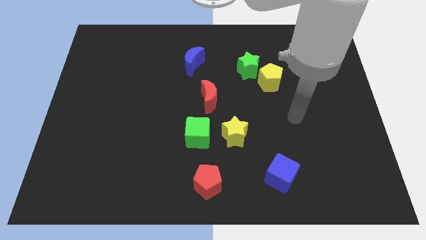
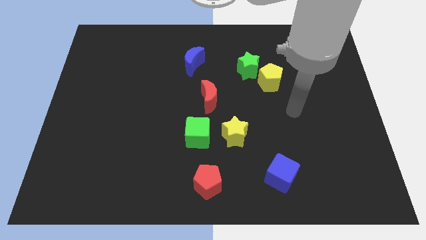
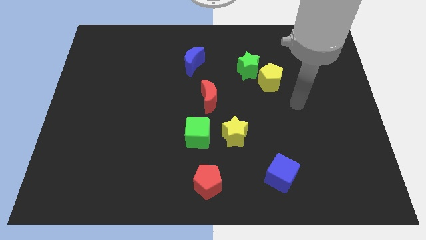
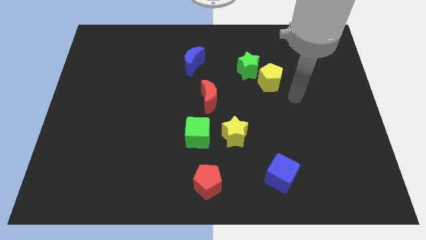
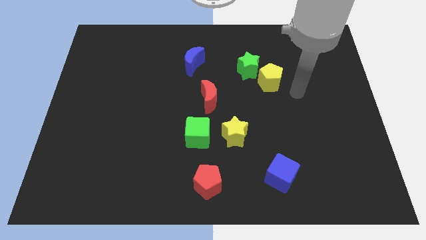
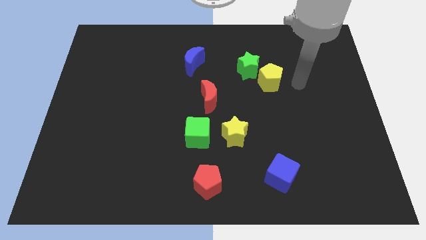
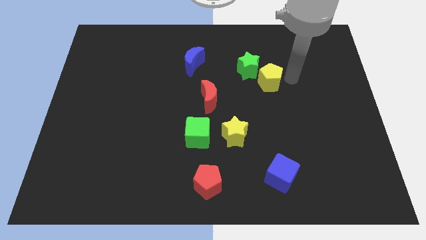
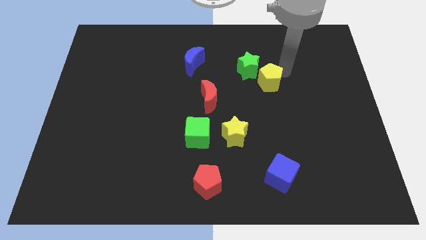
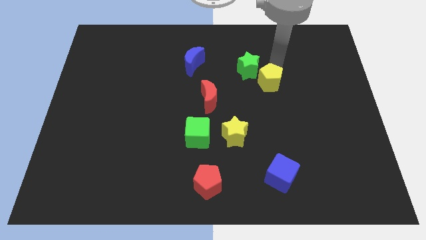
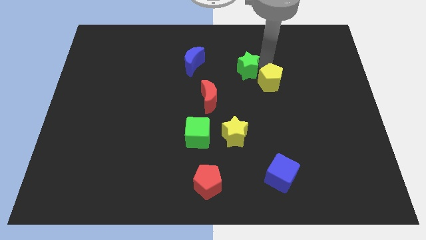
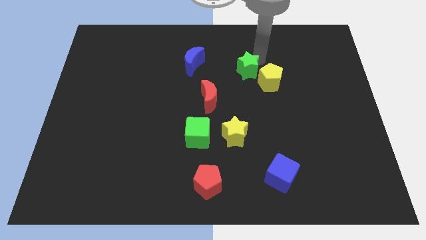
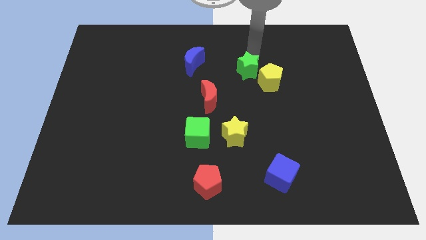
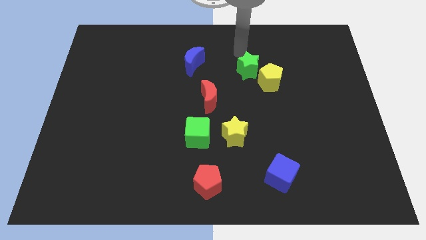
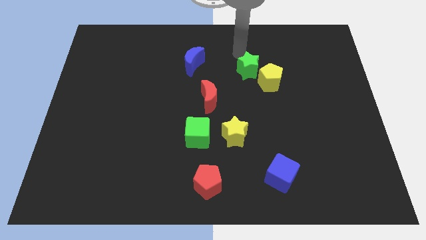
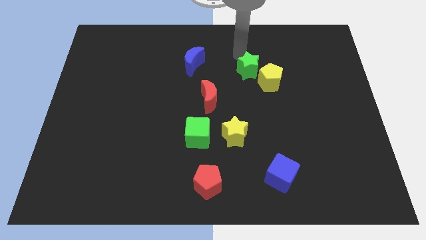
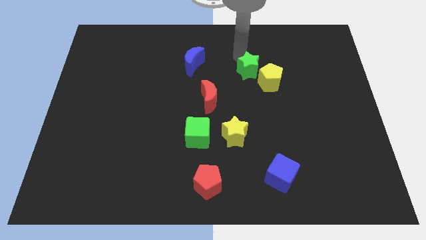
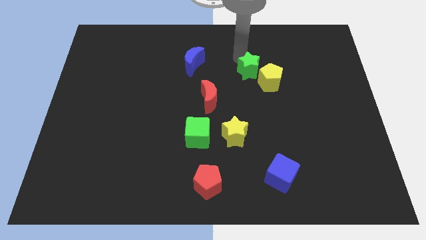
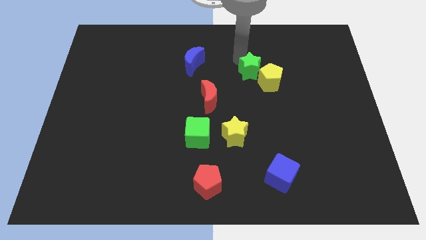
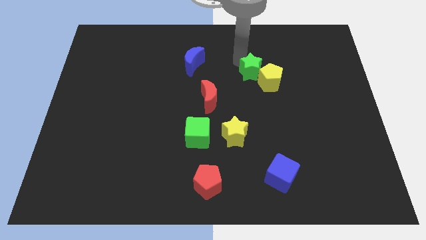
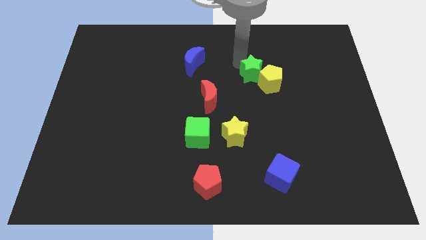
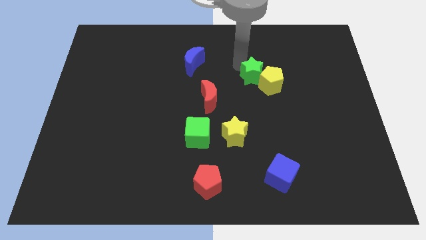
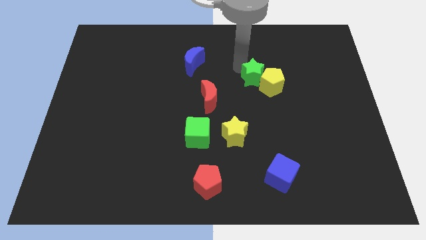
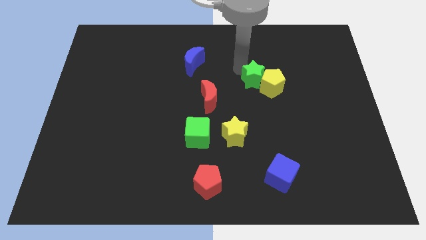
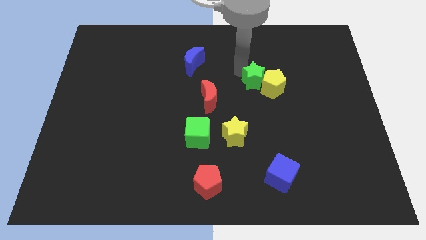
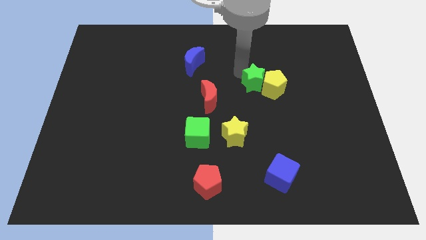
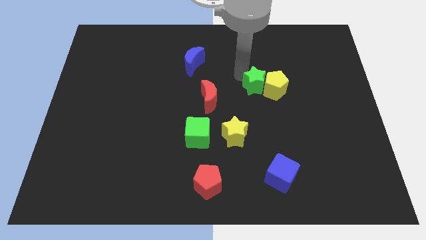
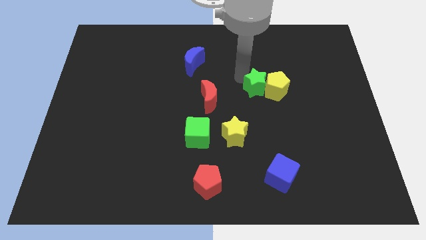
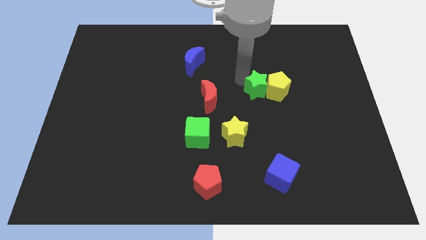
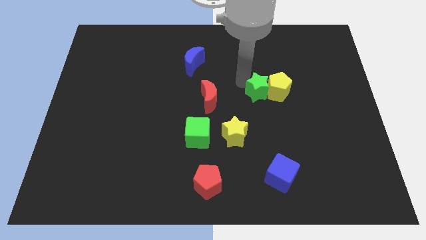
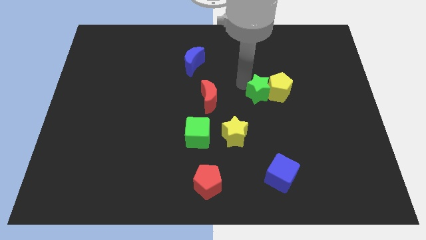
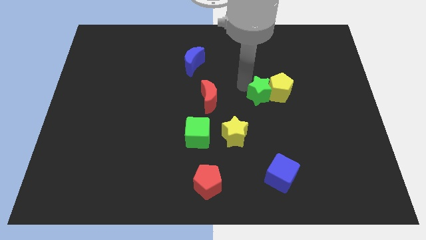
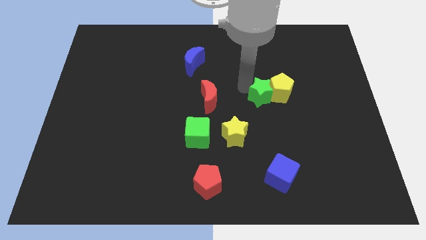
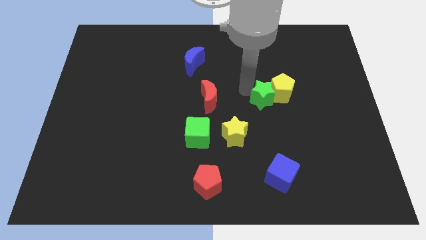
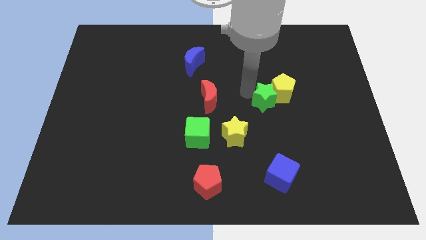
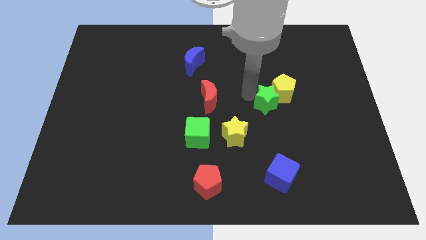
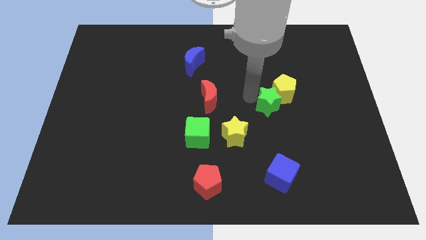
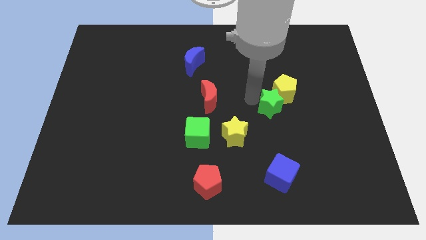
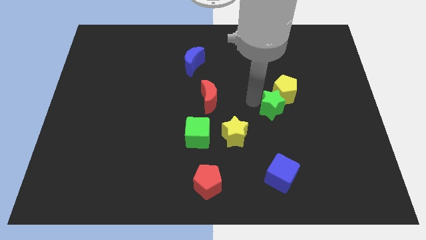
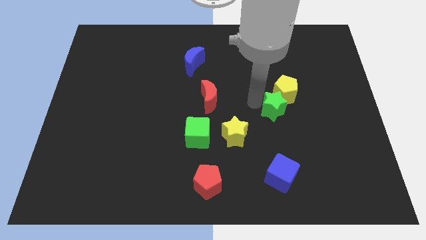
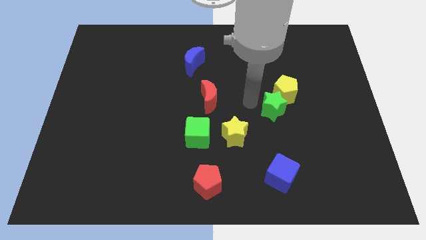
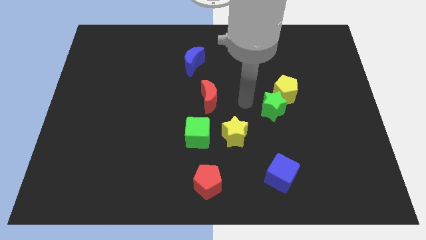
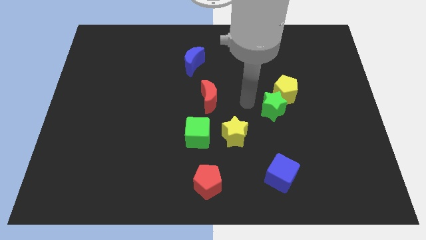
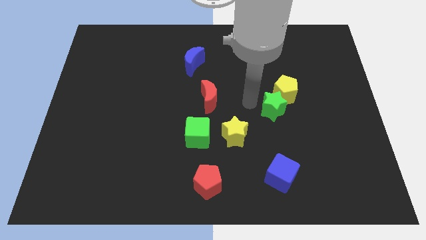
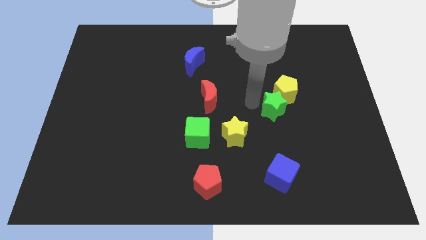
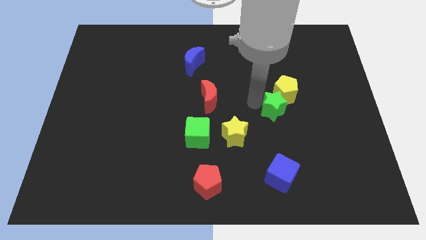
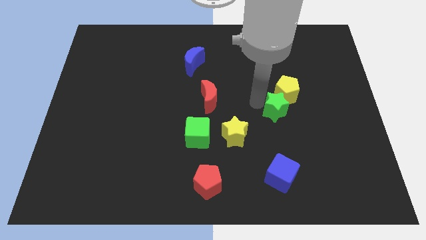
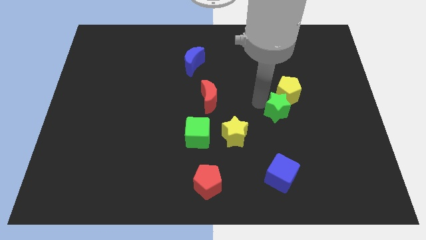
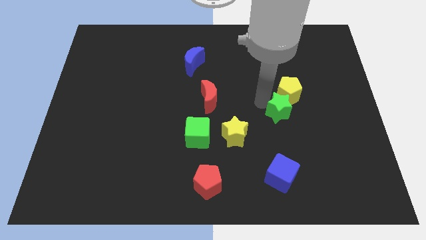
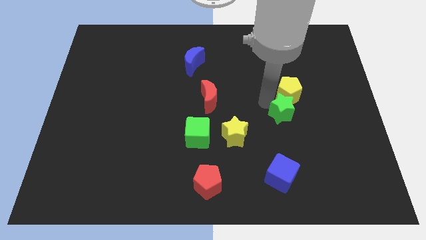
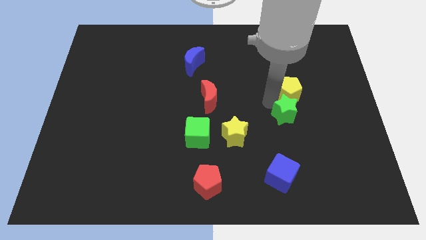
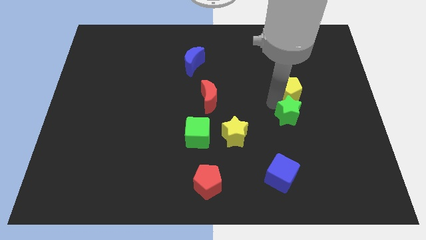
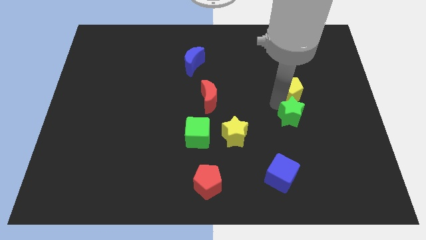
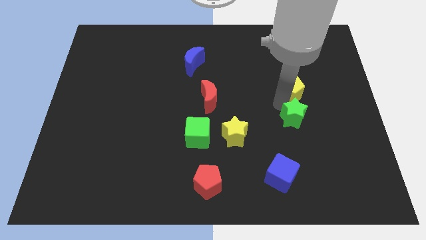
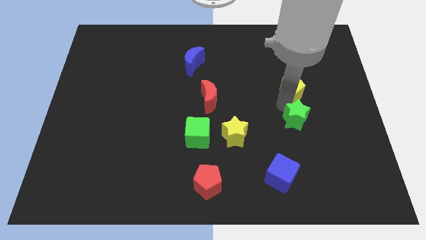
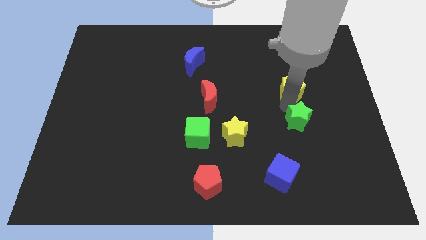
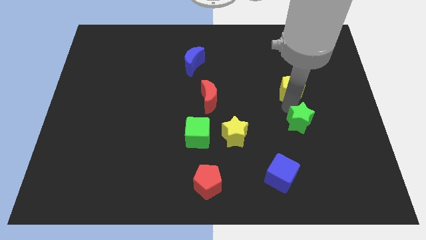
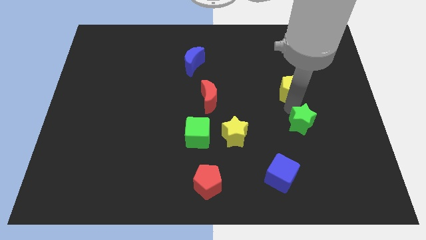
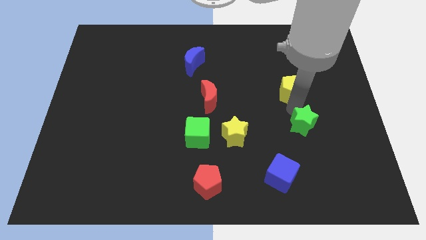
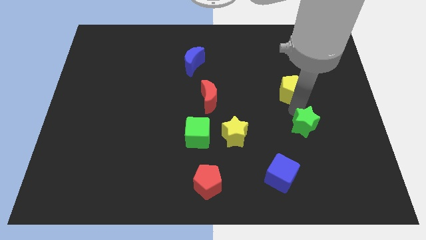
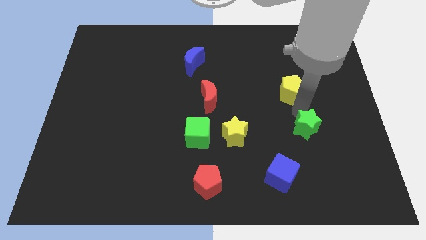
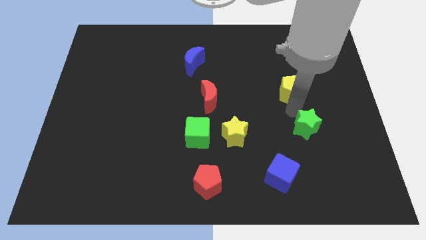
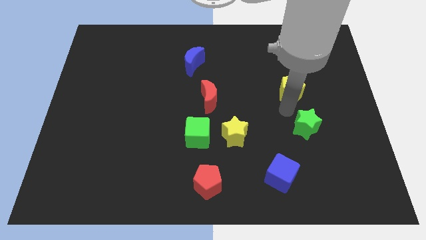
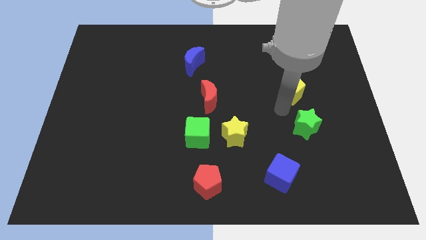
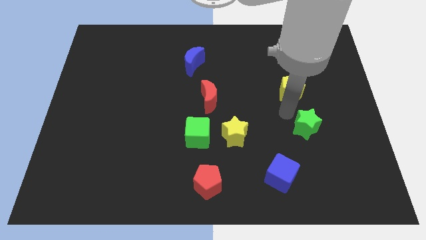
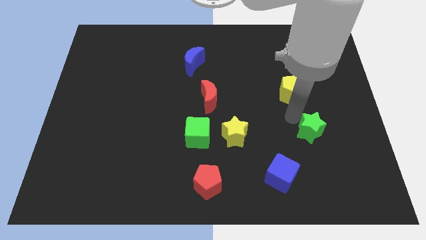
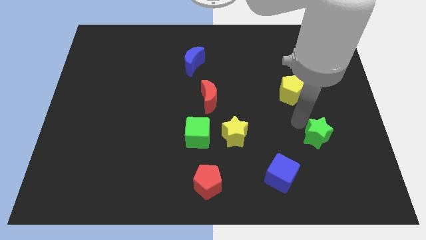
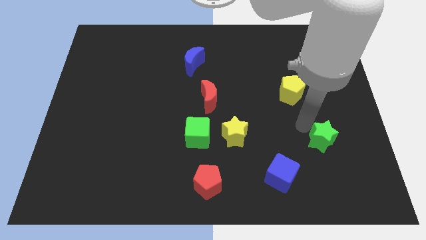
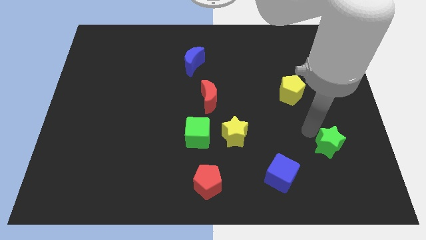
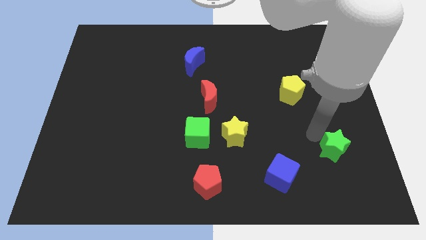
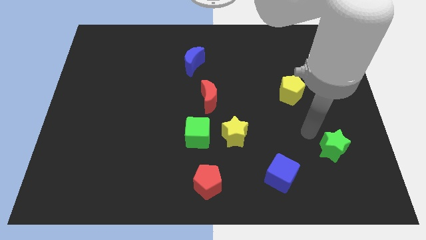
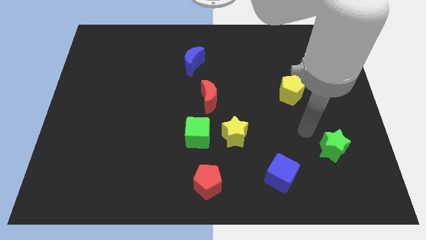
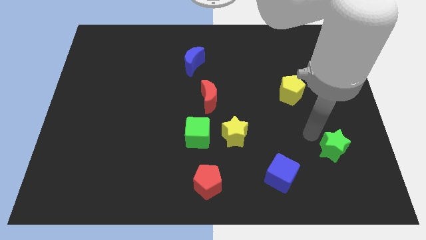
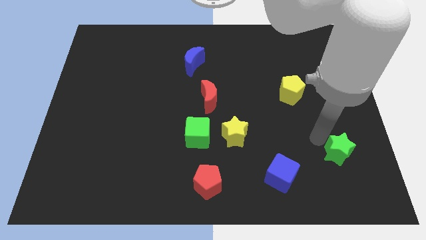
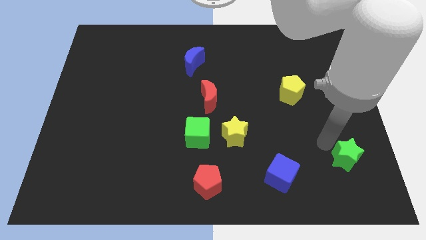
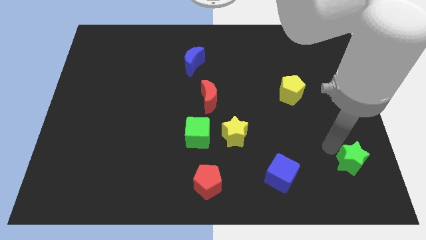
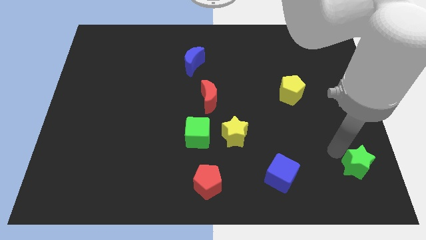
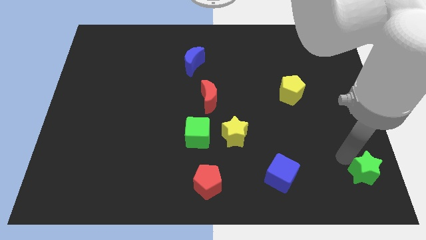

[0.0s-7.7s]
put the green star to the bottom right
